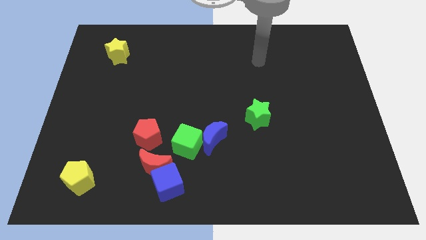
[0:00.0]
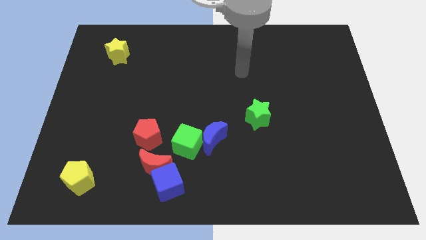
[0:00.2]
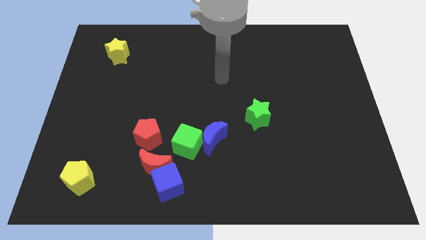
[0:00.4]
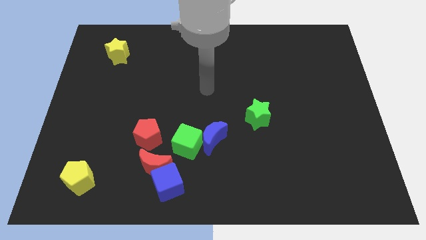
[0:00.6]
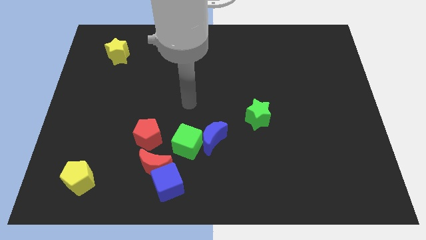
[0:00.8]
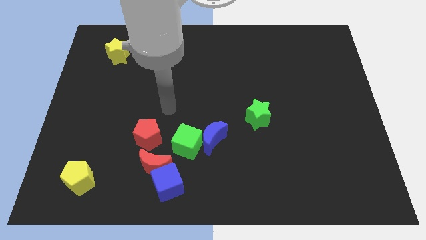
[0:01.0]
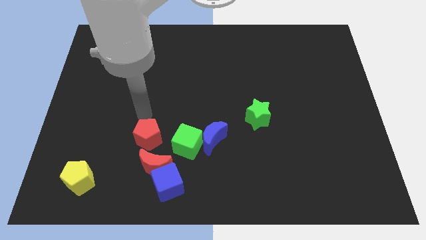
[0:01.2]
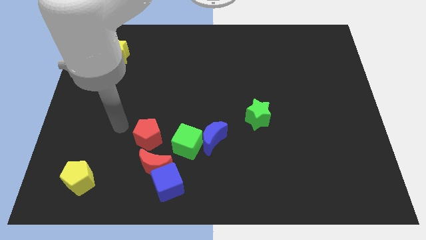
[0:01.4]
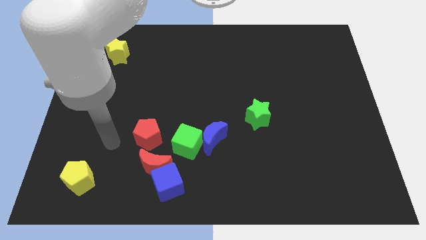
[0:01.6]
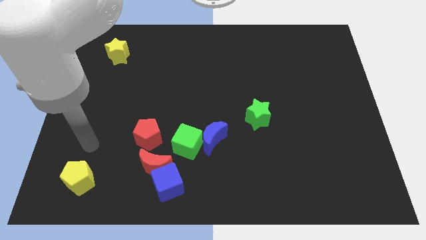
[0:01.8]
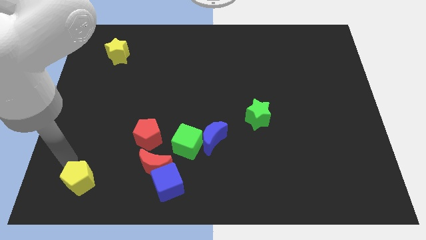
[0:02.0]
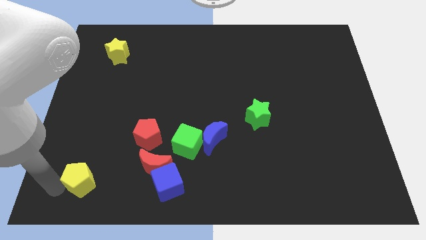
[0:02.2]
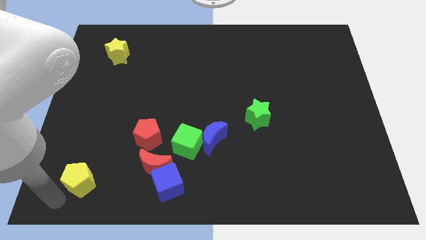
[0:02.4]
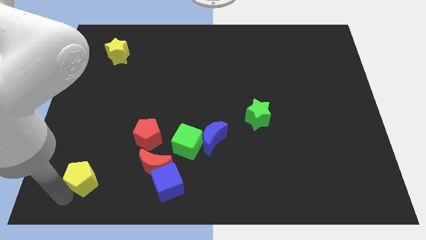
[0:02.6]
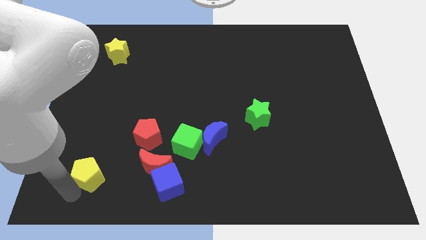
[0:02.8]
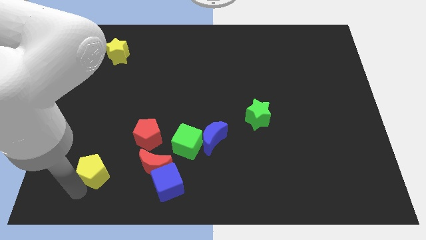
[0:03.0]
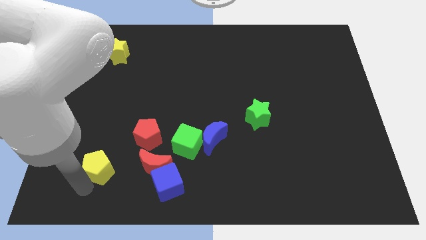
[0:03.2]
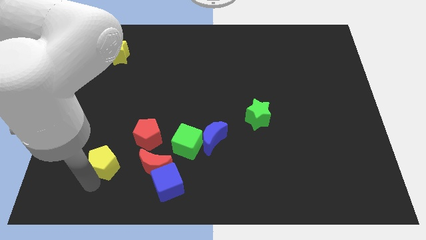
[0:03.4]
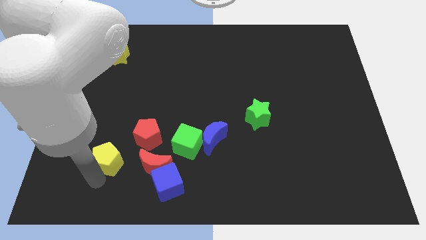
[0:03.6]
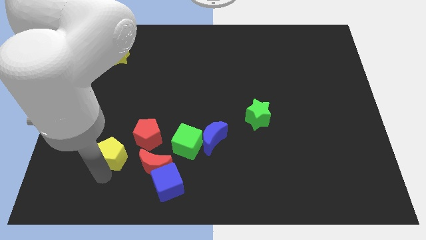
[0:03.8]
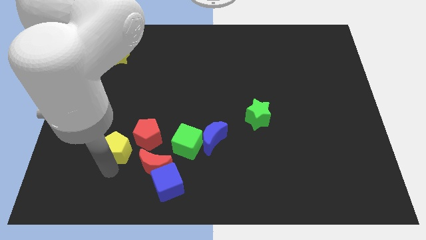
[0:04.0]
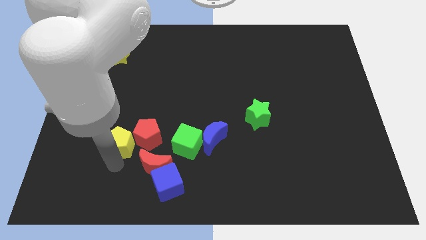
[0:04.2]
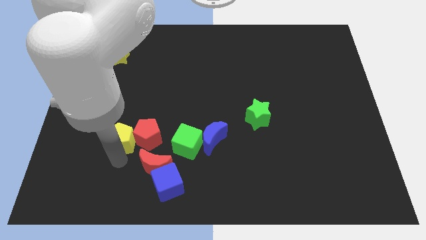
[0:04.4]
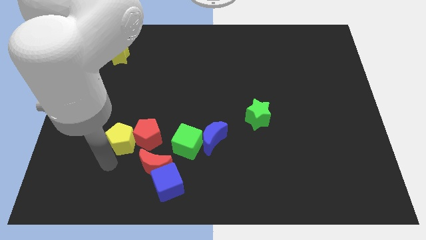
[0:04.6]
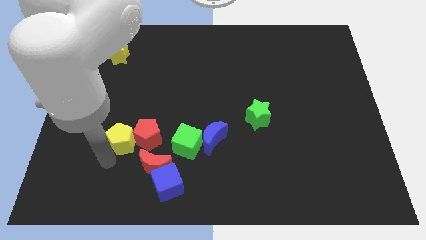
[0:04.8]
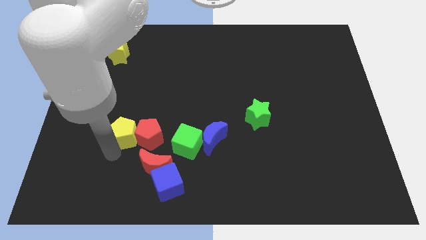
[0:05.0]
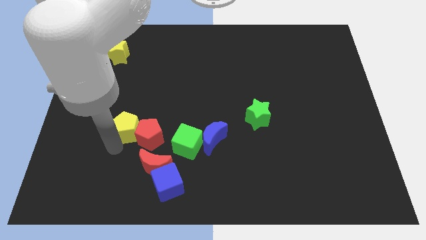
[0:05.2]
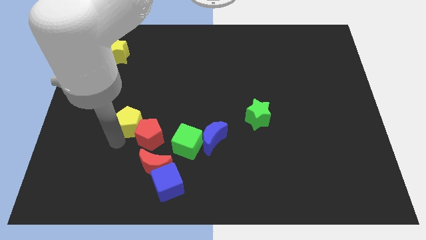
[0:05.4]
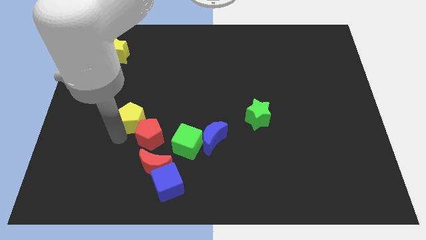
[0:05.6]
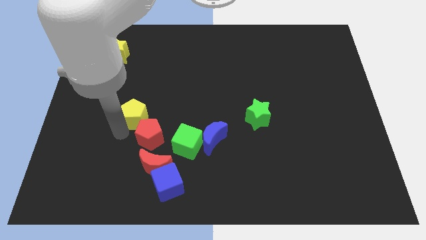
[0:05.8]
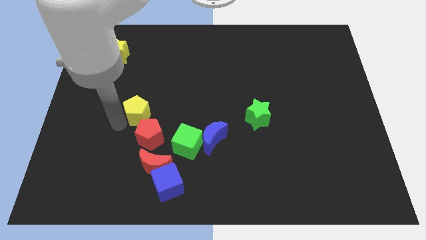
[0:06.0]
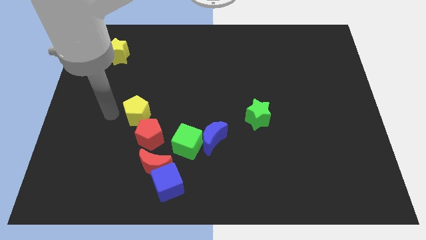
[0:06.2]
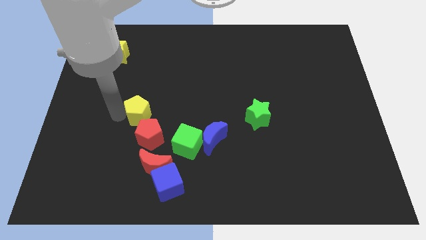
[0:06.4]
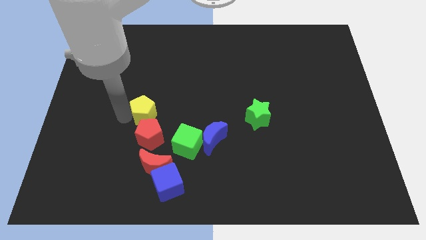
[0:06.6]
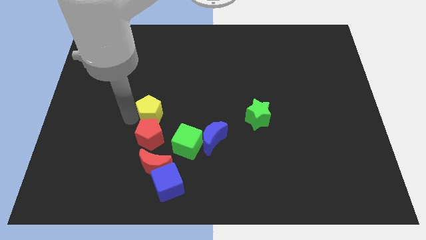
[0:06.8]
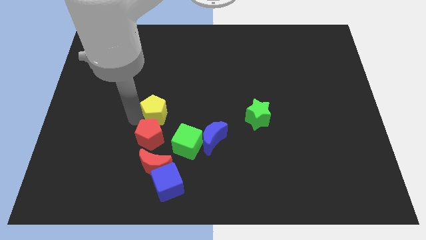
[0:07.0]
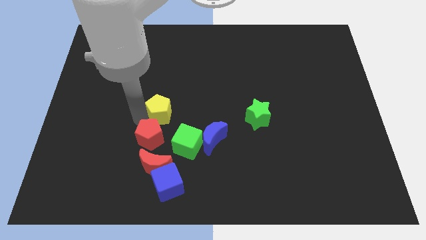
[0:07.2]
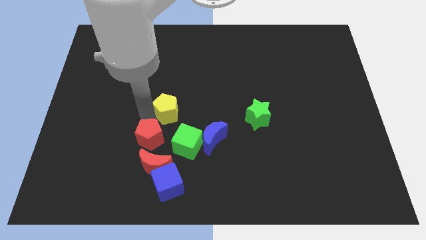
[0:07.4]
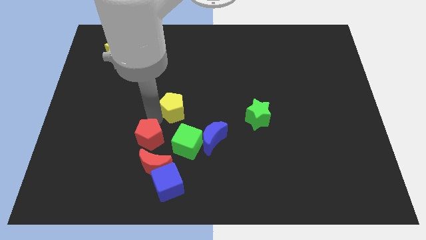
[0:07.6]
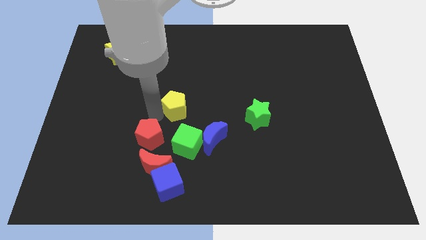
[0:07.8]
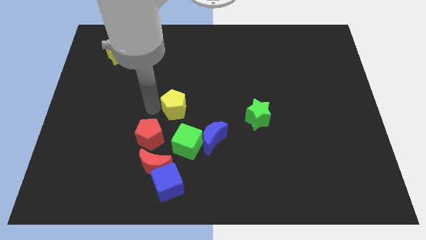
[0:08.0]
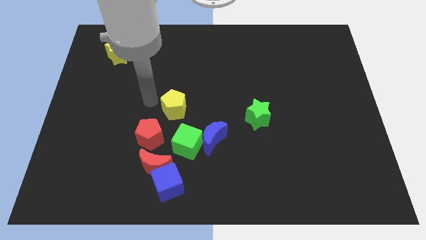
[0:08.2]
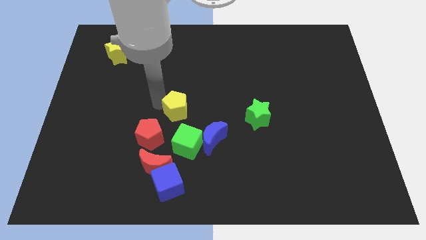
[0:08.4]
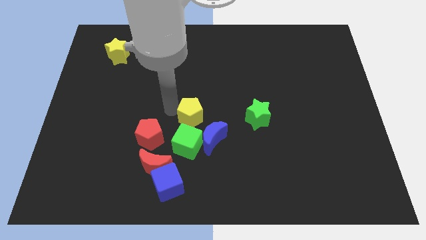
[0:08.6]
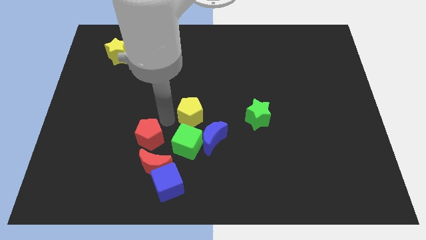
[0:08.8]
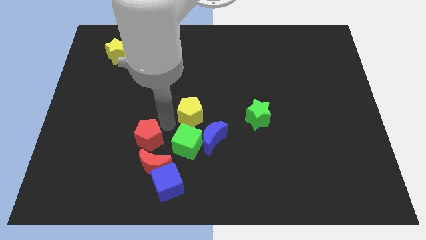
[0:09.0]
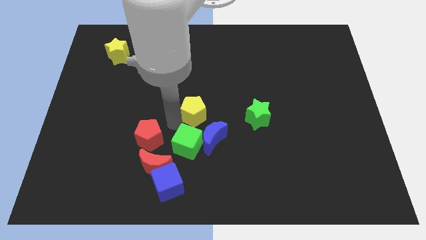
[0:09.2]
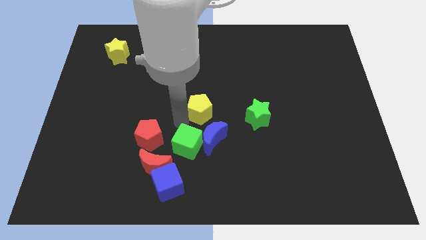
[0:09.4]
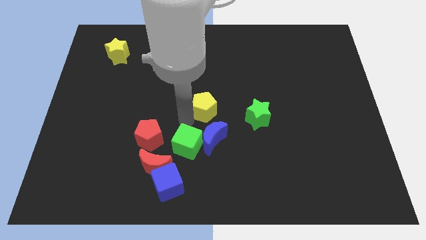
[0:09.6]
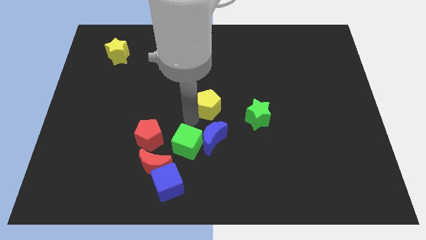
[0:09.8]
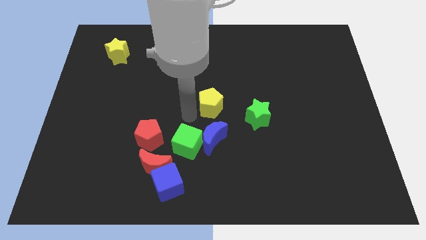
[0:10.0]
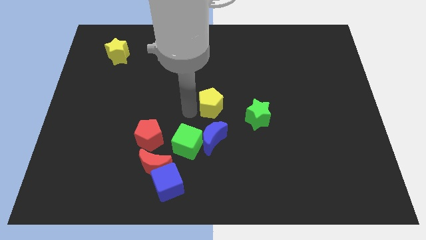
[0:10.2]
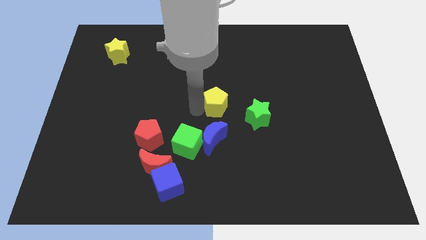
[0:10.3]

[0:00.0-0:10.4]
push the yellow pentagon diagonally up and to the left of the green star

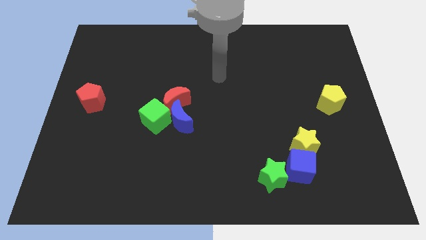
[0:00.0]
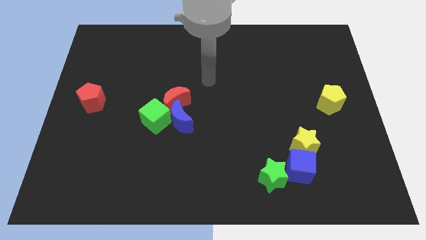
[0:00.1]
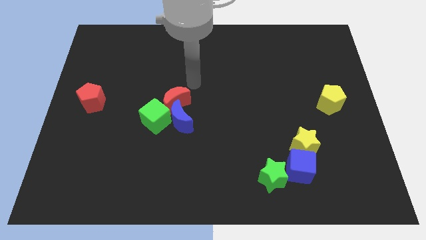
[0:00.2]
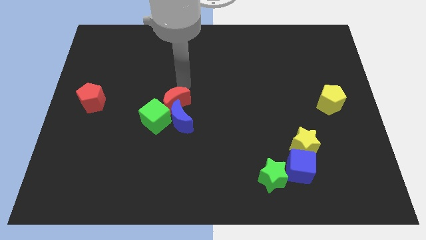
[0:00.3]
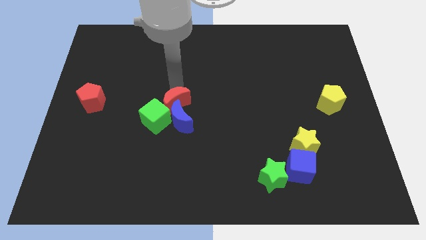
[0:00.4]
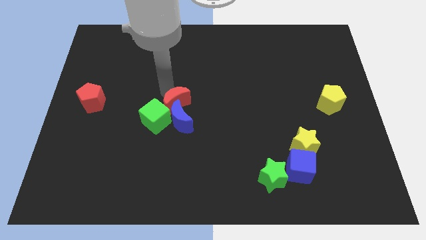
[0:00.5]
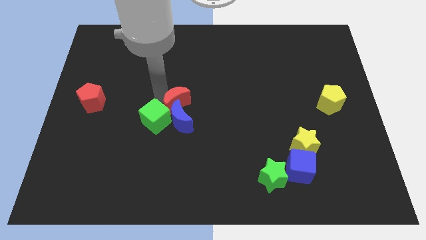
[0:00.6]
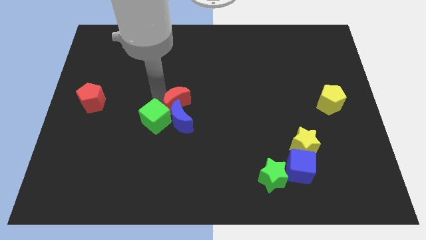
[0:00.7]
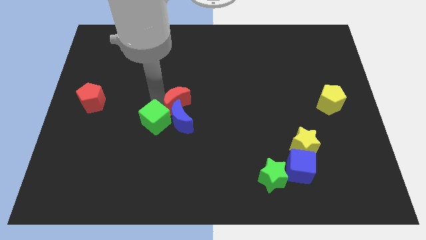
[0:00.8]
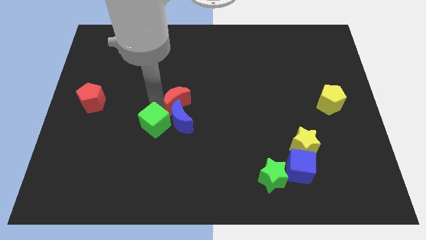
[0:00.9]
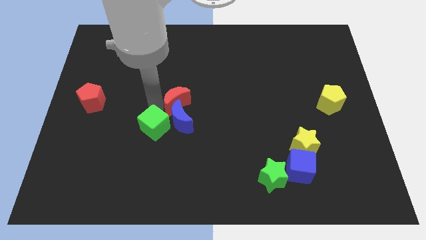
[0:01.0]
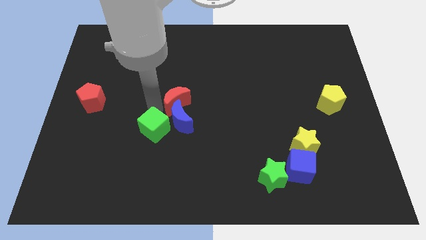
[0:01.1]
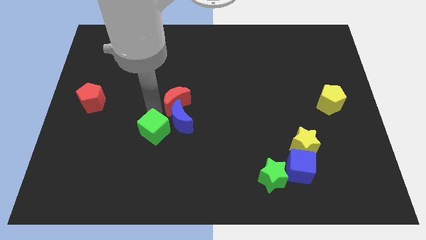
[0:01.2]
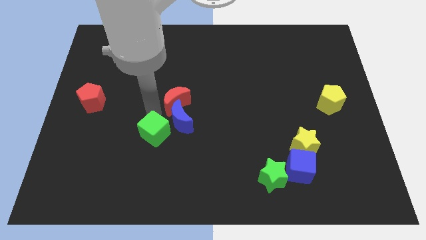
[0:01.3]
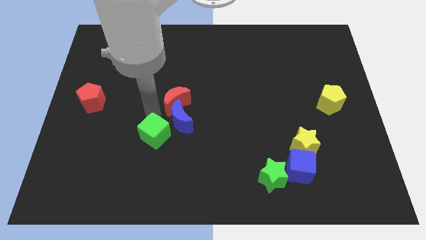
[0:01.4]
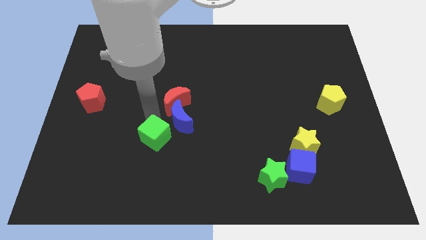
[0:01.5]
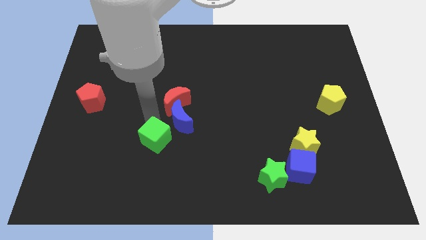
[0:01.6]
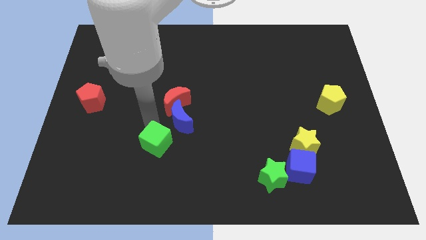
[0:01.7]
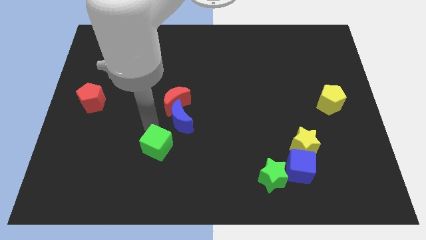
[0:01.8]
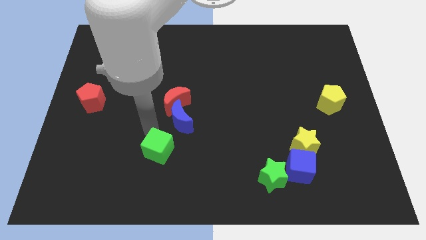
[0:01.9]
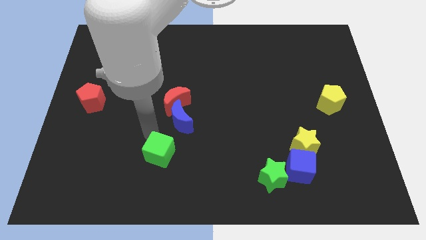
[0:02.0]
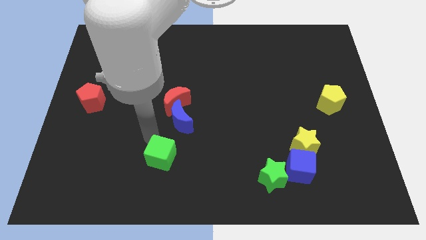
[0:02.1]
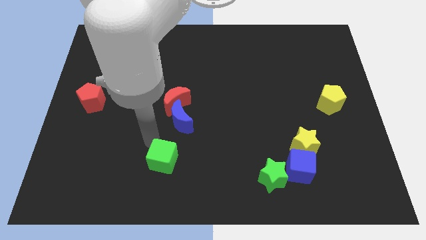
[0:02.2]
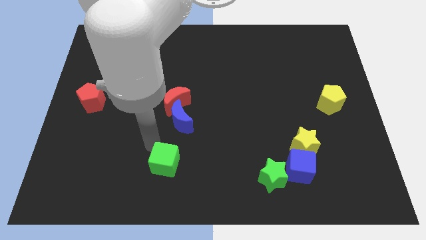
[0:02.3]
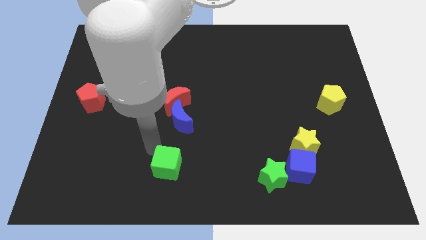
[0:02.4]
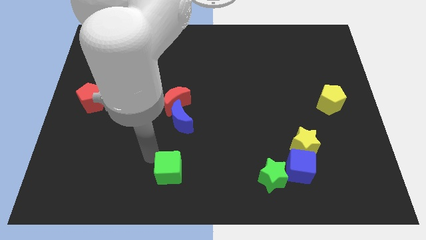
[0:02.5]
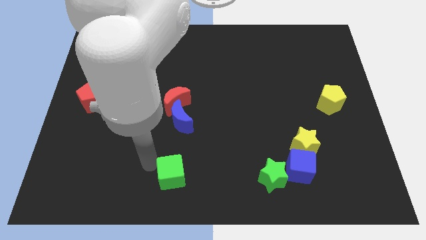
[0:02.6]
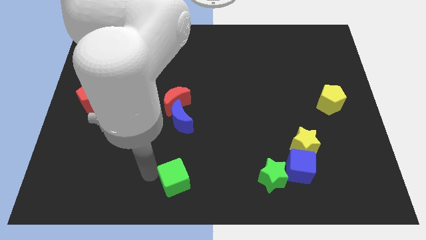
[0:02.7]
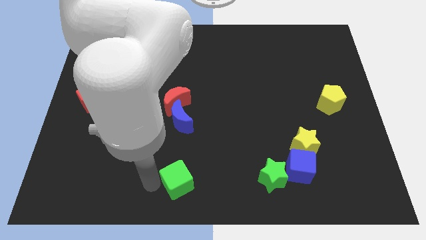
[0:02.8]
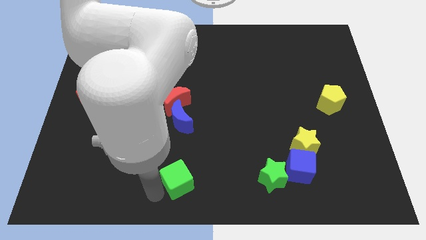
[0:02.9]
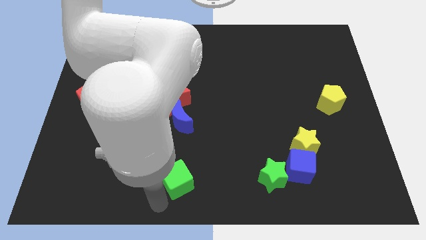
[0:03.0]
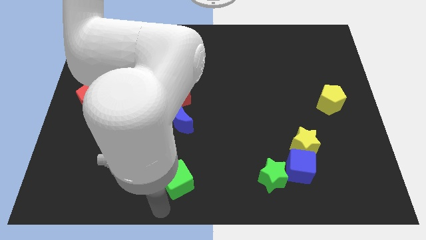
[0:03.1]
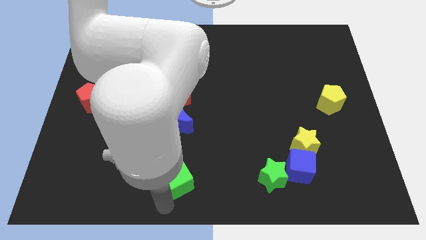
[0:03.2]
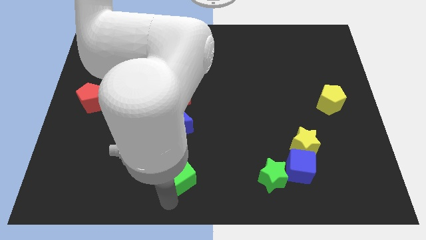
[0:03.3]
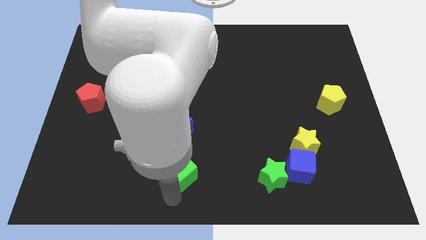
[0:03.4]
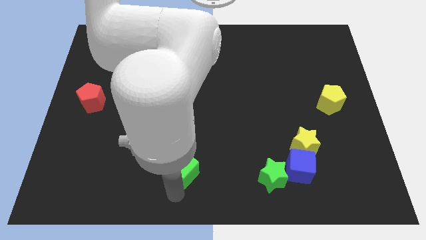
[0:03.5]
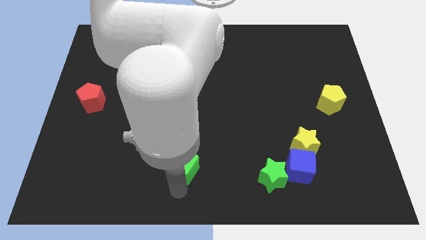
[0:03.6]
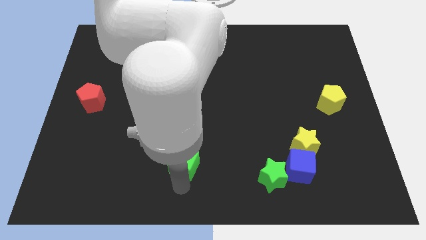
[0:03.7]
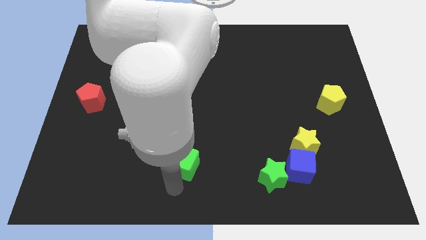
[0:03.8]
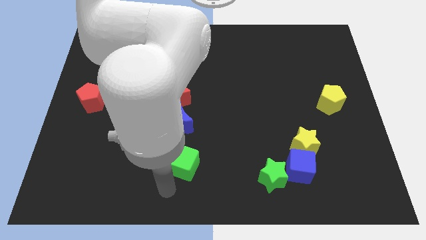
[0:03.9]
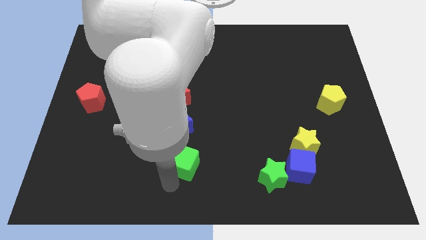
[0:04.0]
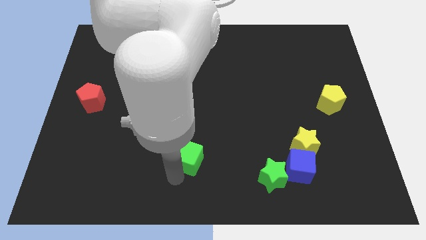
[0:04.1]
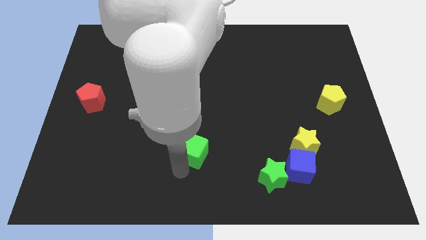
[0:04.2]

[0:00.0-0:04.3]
slide the green cube diagonally down and to the right of the blue moon
